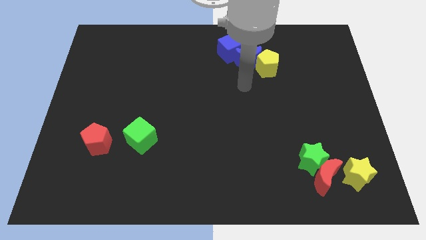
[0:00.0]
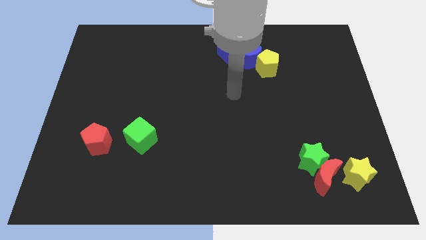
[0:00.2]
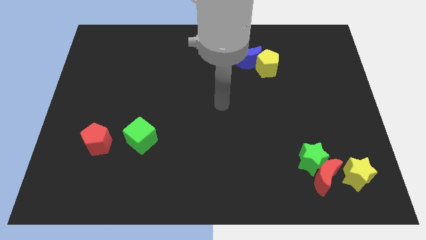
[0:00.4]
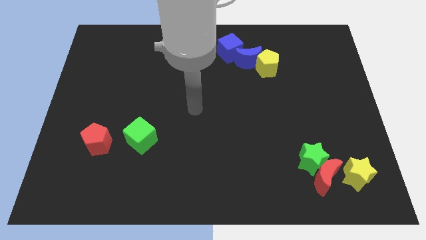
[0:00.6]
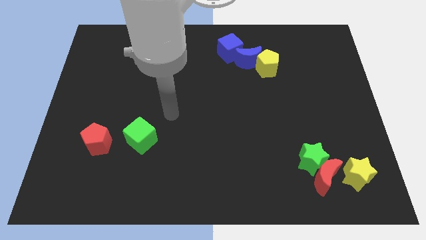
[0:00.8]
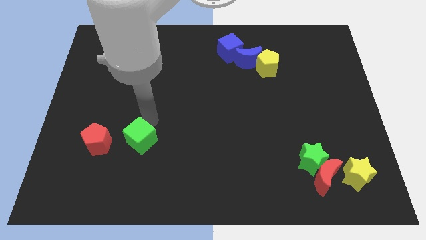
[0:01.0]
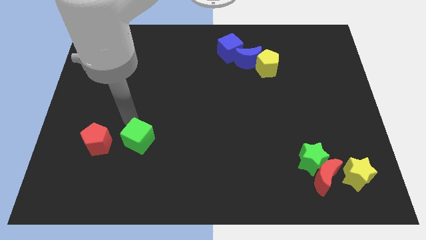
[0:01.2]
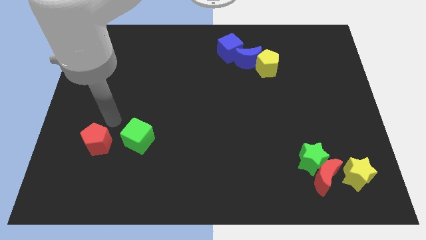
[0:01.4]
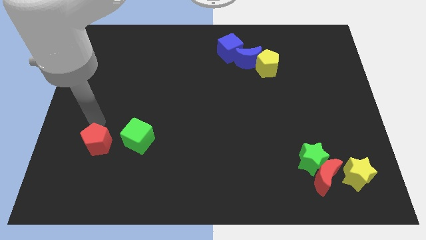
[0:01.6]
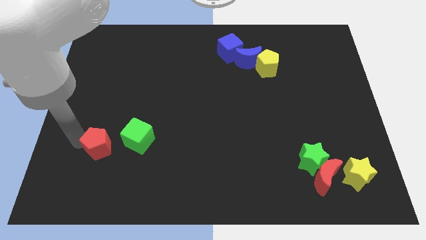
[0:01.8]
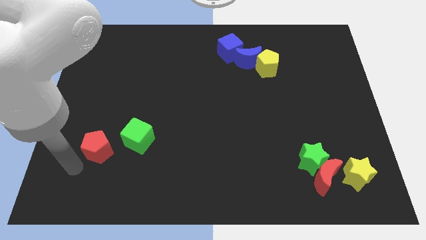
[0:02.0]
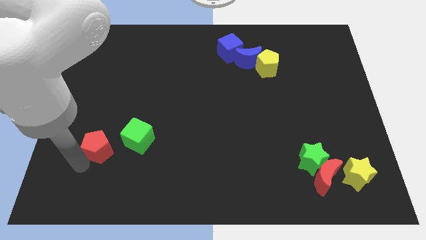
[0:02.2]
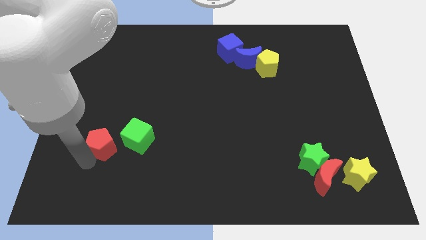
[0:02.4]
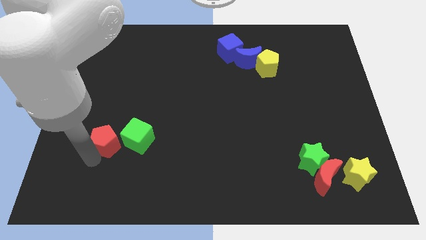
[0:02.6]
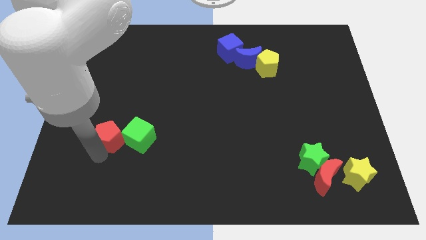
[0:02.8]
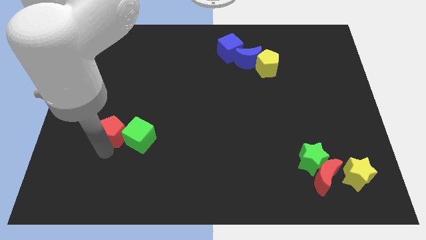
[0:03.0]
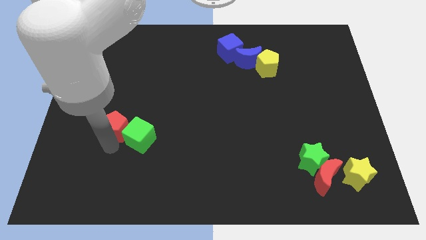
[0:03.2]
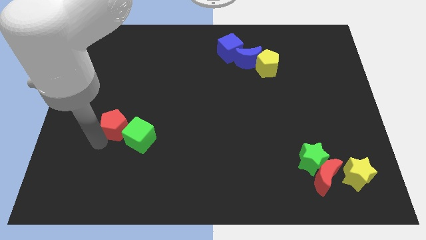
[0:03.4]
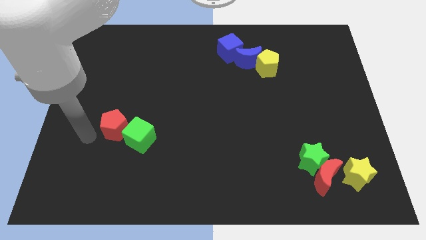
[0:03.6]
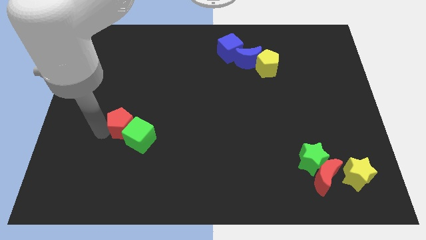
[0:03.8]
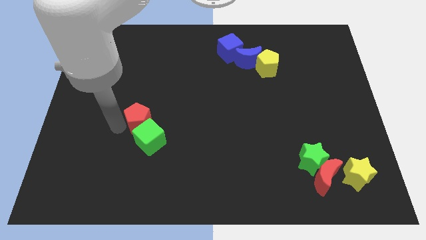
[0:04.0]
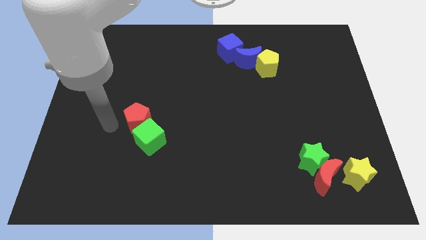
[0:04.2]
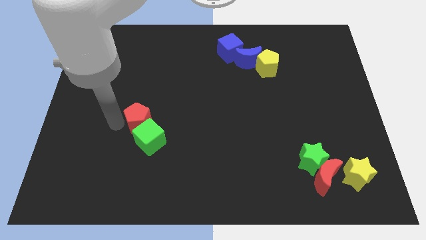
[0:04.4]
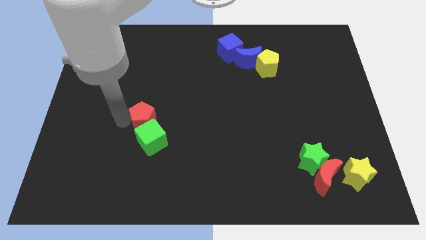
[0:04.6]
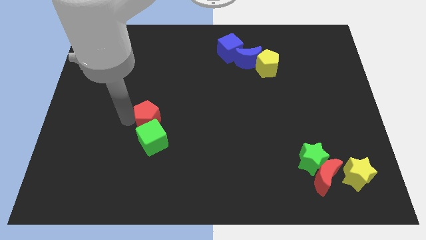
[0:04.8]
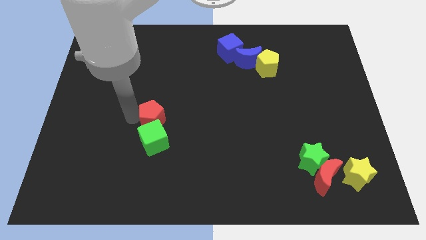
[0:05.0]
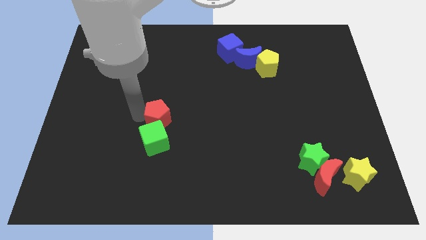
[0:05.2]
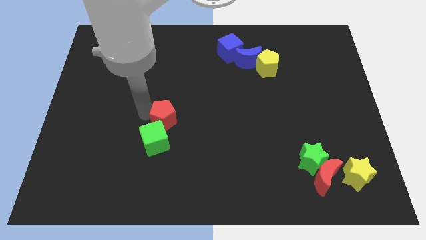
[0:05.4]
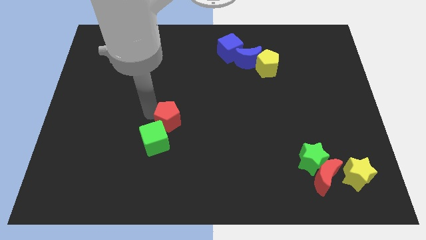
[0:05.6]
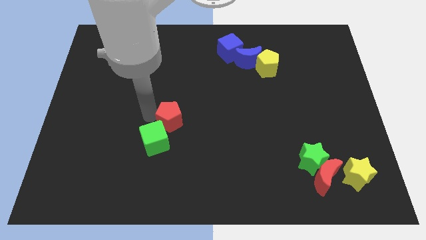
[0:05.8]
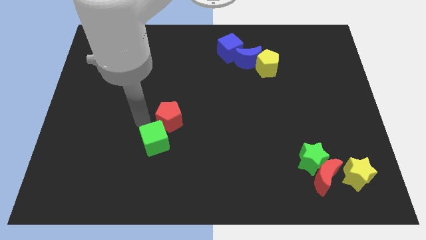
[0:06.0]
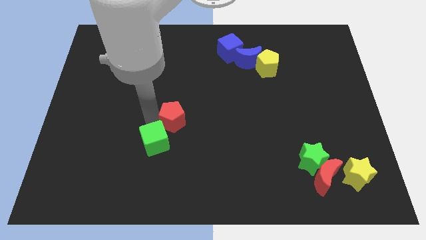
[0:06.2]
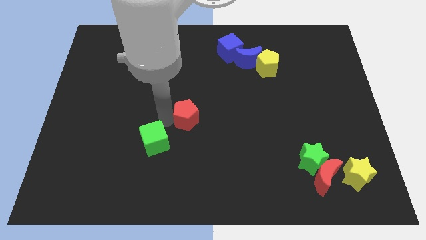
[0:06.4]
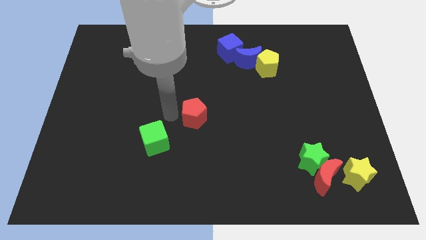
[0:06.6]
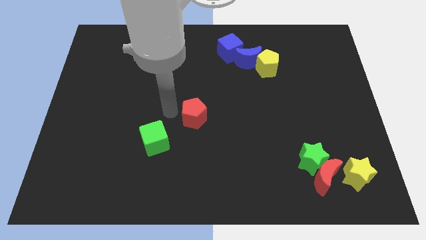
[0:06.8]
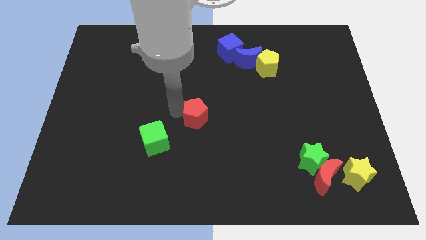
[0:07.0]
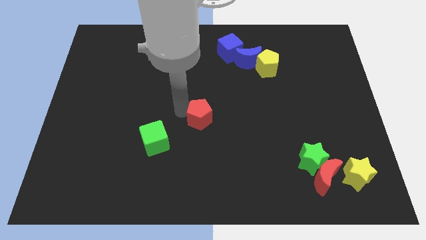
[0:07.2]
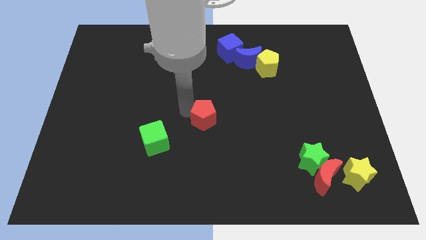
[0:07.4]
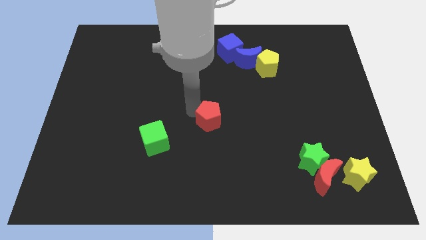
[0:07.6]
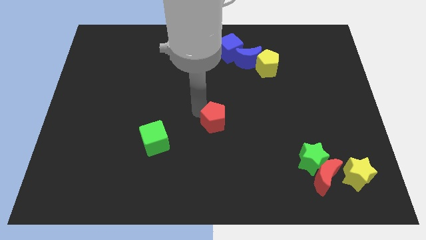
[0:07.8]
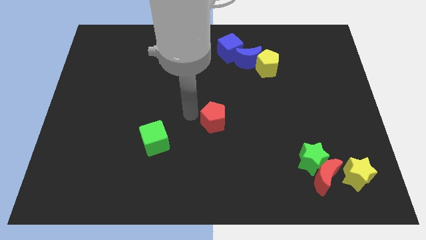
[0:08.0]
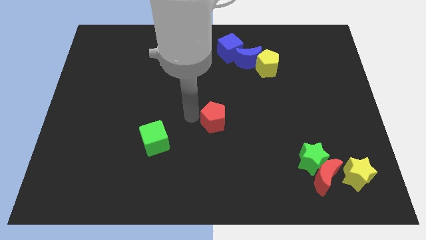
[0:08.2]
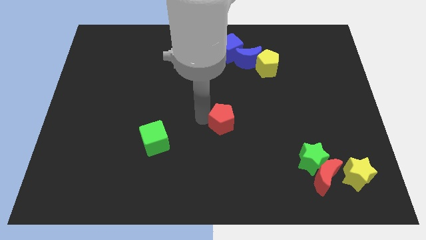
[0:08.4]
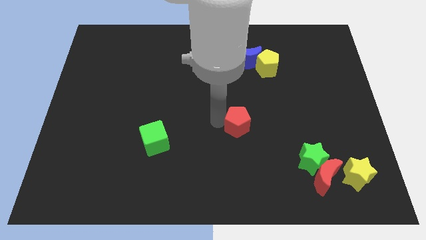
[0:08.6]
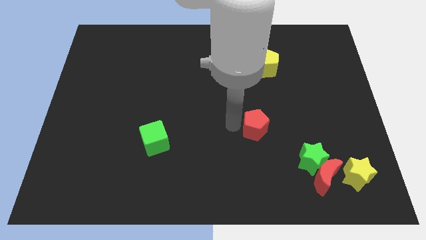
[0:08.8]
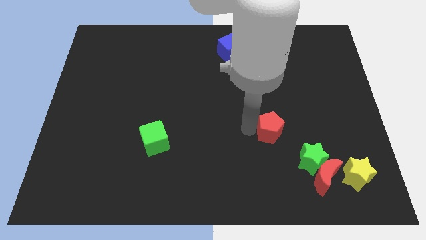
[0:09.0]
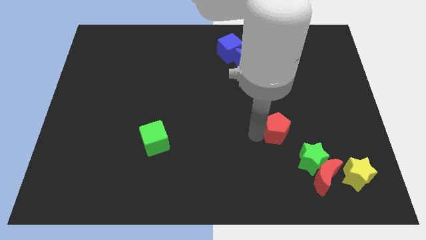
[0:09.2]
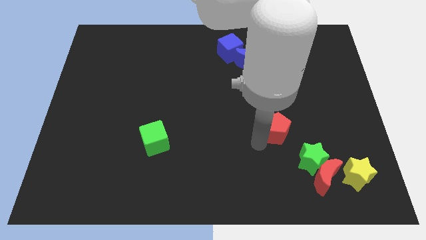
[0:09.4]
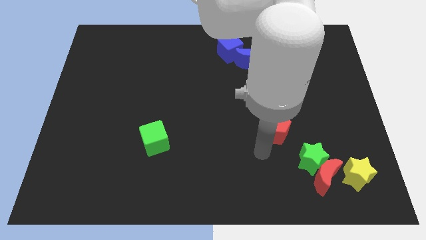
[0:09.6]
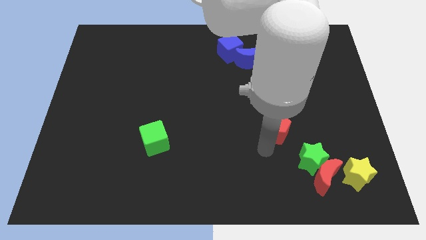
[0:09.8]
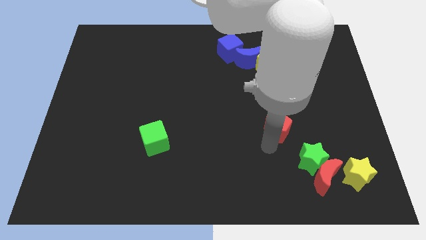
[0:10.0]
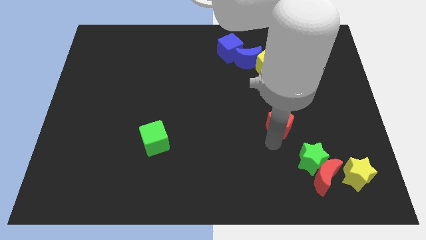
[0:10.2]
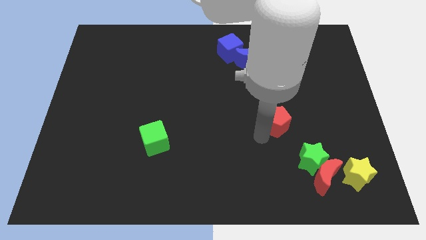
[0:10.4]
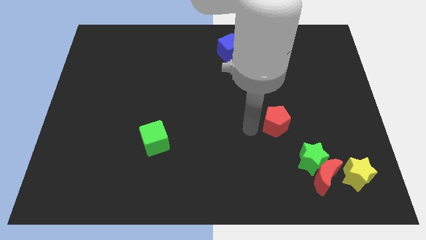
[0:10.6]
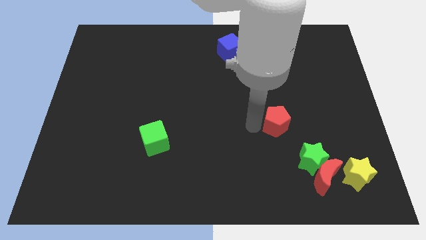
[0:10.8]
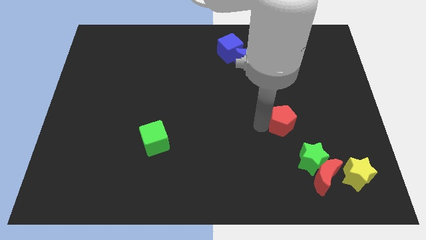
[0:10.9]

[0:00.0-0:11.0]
put the red pentagon to the top of the green star

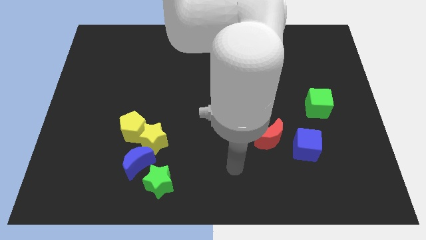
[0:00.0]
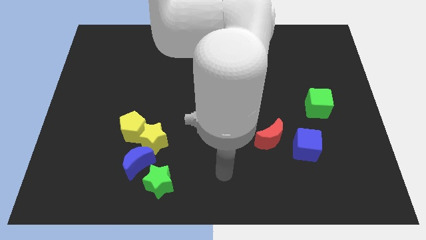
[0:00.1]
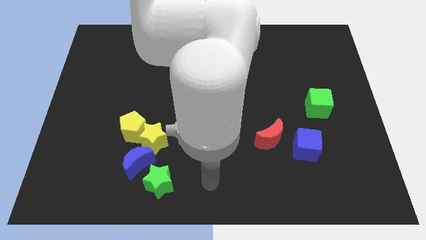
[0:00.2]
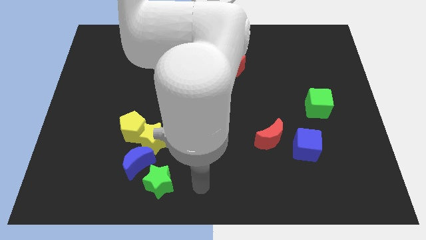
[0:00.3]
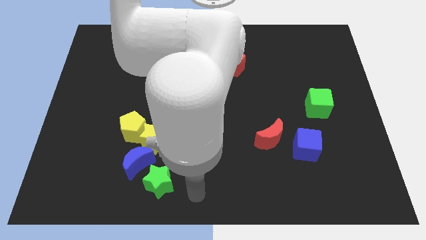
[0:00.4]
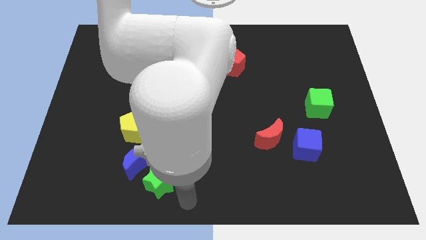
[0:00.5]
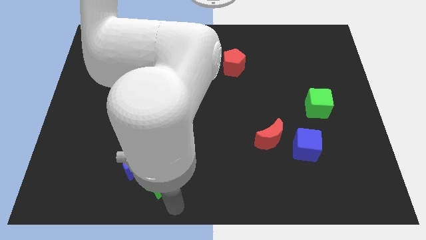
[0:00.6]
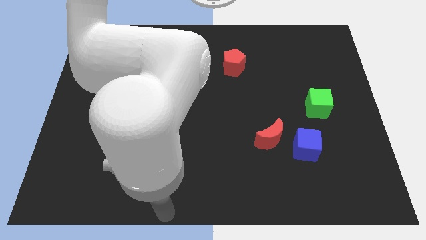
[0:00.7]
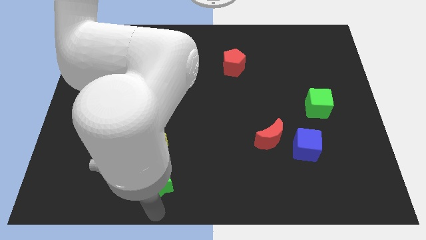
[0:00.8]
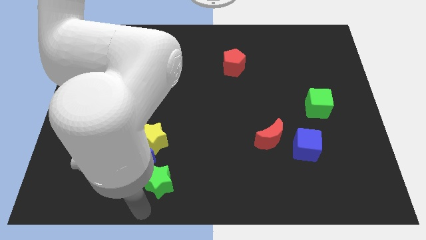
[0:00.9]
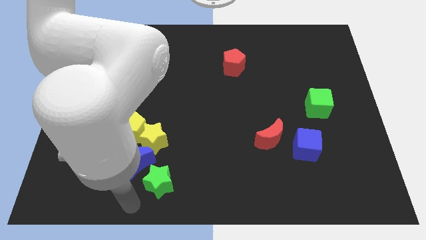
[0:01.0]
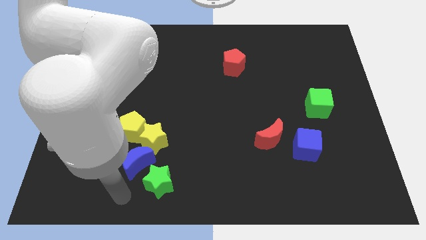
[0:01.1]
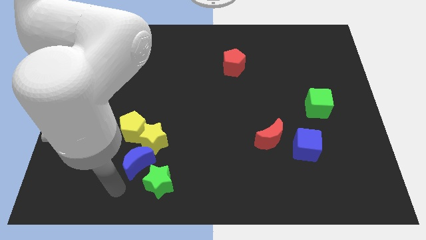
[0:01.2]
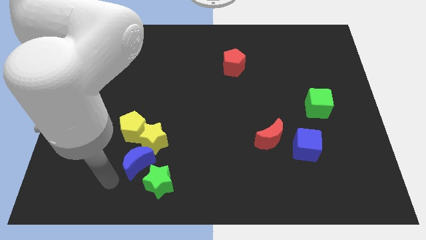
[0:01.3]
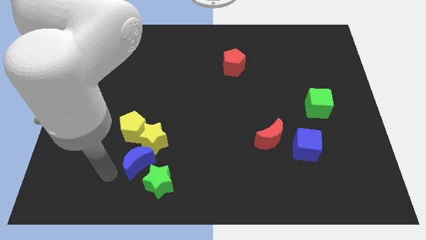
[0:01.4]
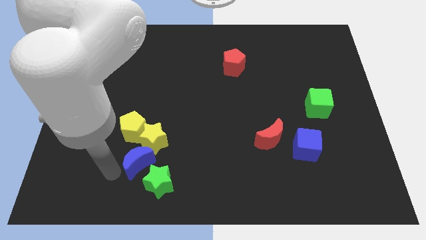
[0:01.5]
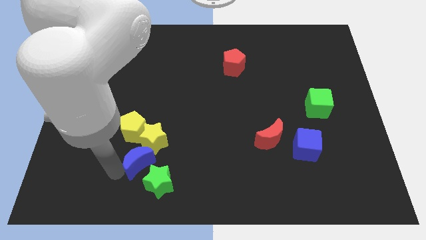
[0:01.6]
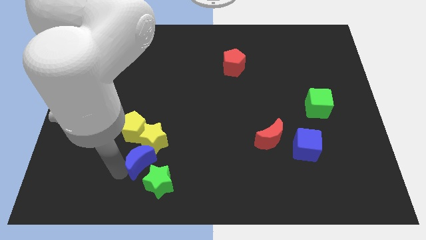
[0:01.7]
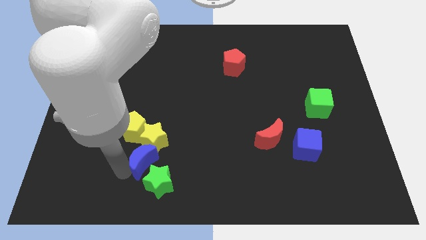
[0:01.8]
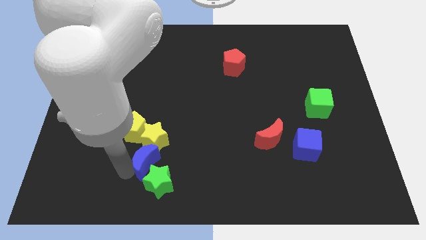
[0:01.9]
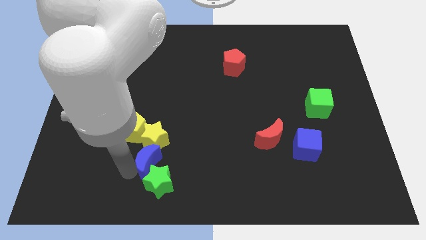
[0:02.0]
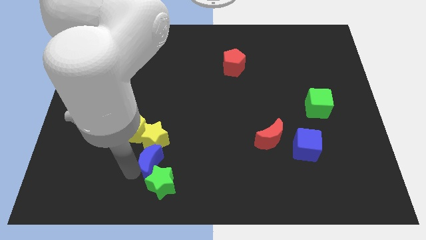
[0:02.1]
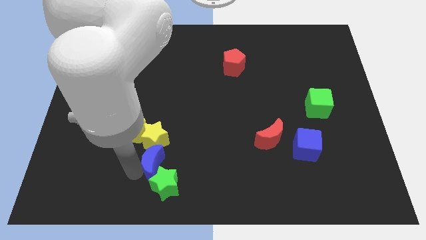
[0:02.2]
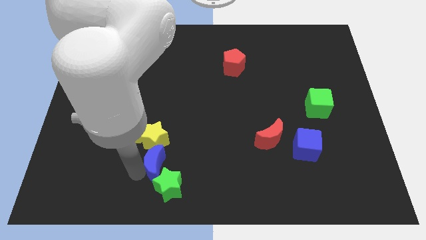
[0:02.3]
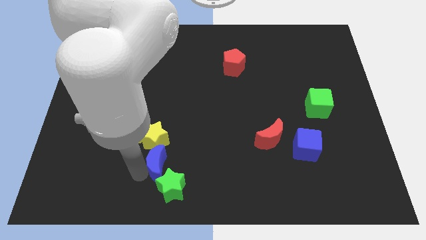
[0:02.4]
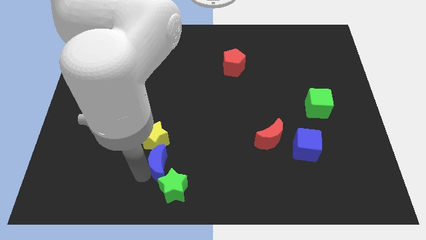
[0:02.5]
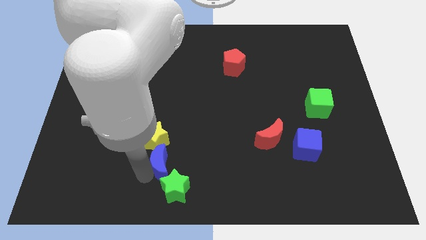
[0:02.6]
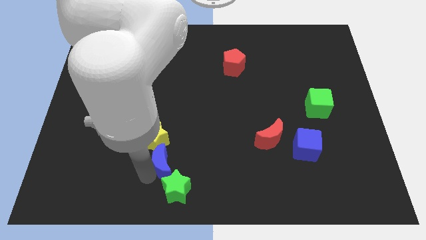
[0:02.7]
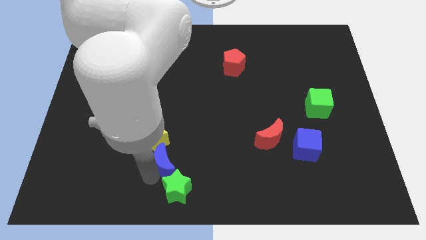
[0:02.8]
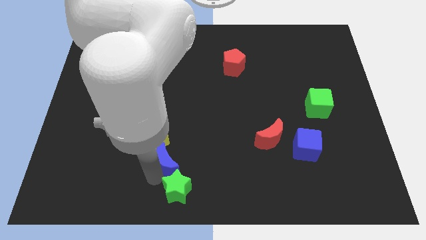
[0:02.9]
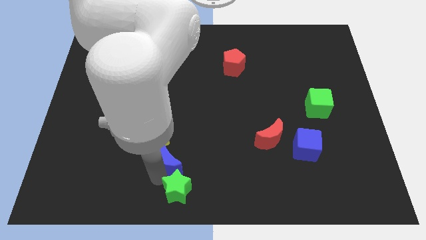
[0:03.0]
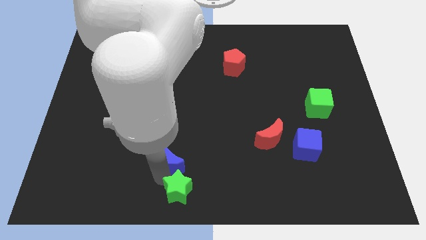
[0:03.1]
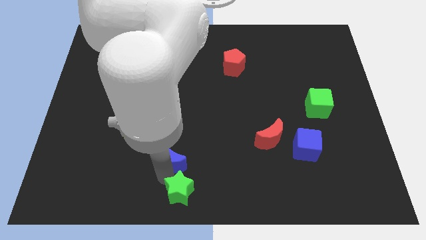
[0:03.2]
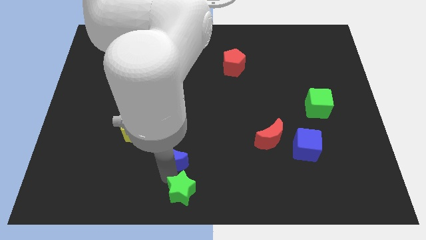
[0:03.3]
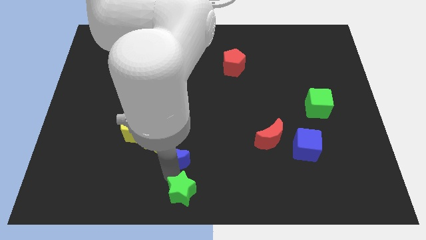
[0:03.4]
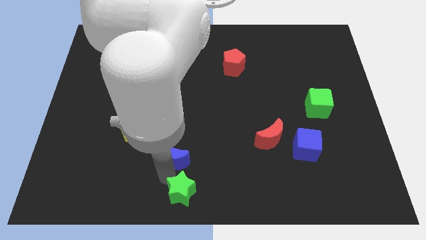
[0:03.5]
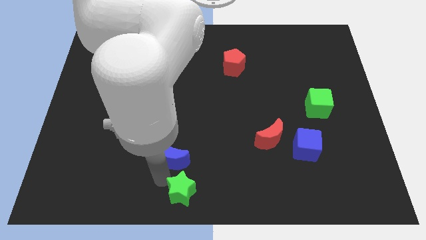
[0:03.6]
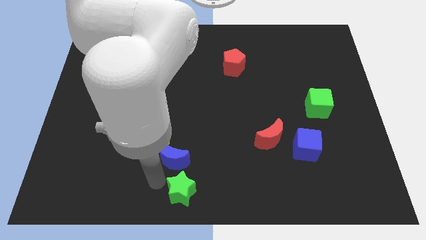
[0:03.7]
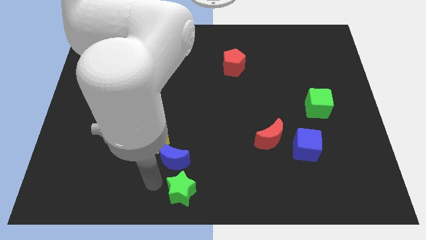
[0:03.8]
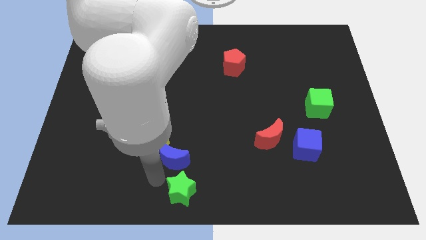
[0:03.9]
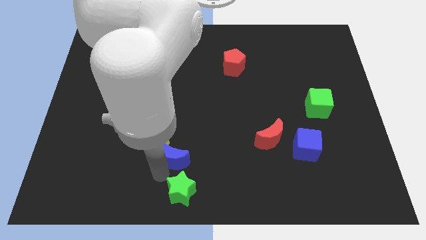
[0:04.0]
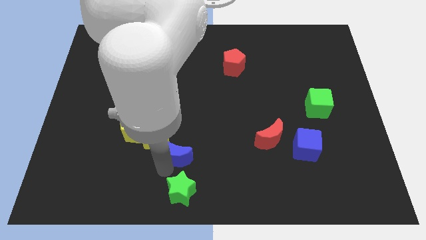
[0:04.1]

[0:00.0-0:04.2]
push the blue moon just right of the yellow star
